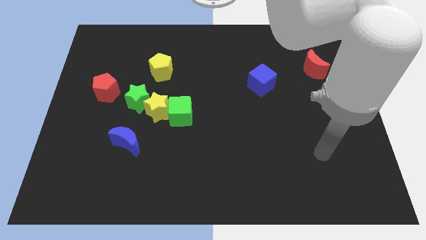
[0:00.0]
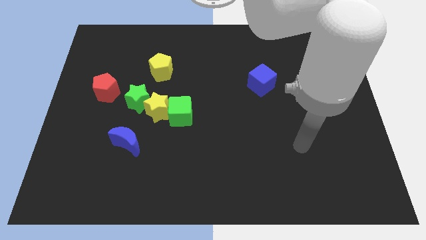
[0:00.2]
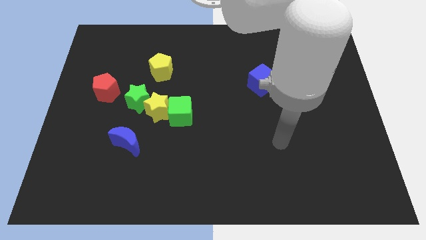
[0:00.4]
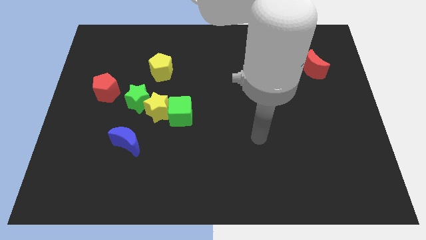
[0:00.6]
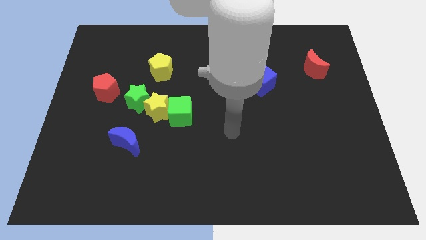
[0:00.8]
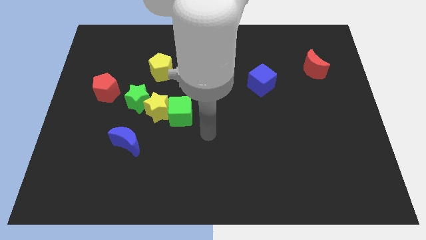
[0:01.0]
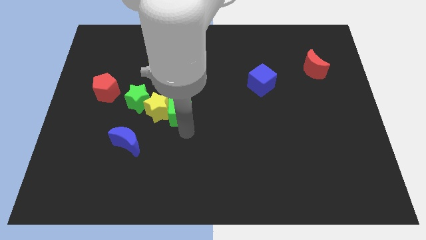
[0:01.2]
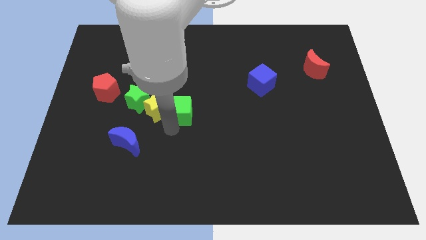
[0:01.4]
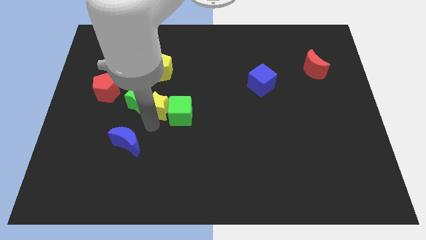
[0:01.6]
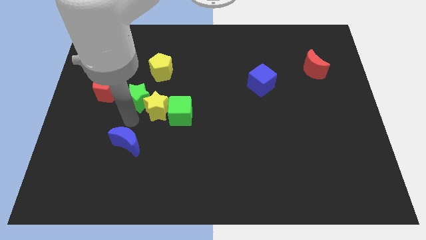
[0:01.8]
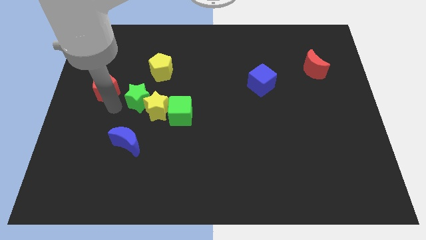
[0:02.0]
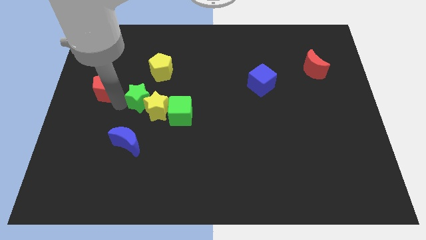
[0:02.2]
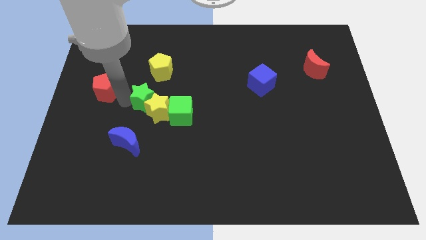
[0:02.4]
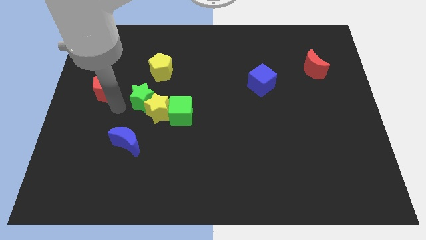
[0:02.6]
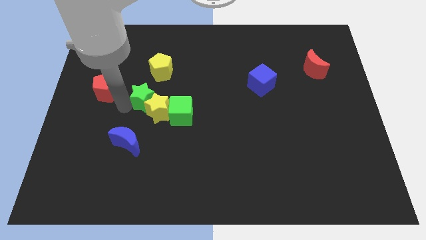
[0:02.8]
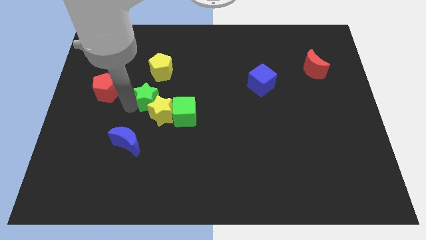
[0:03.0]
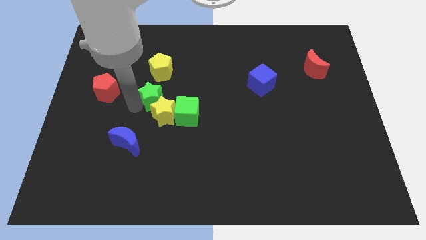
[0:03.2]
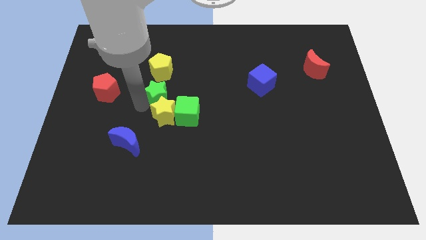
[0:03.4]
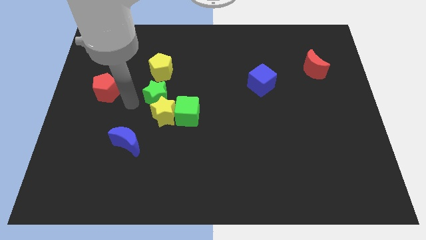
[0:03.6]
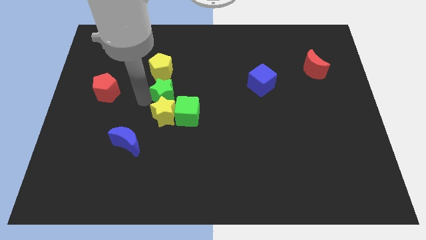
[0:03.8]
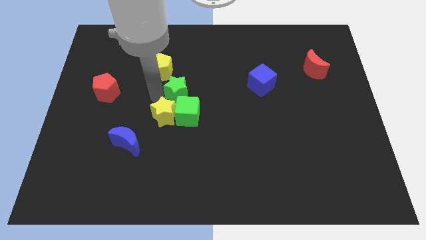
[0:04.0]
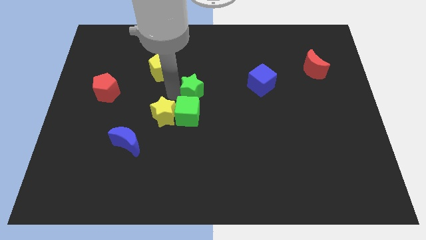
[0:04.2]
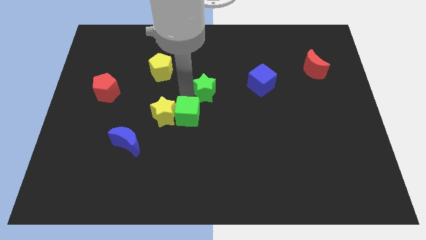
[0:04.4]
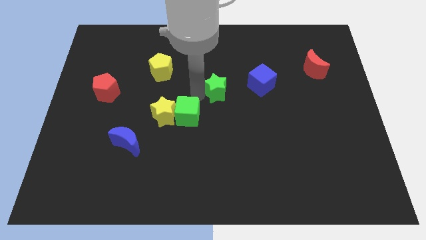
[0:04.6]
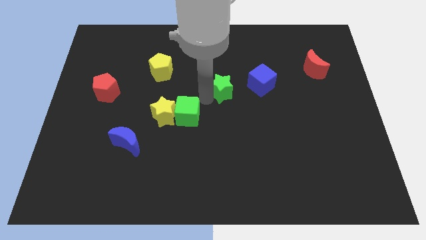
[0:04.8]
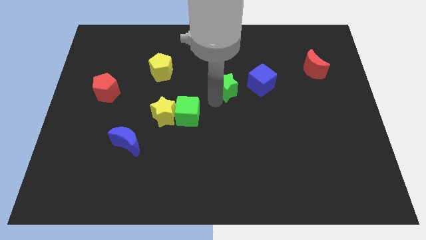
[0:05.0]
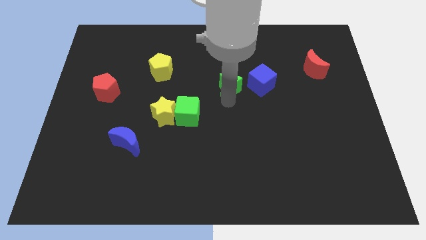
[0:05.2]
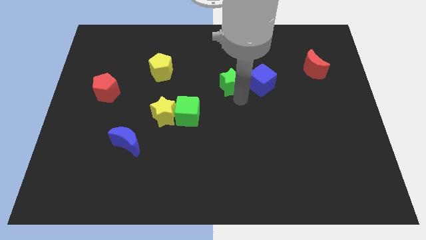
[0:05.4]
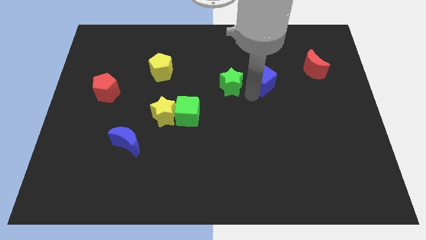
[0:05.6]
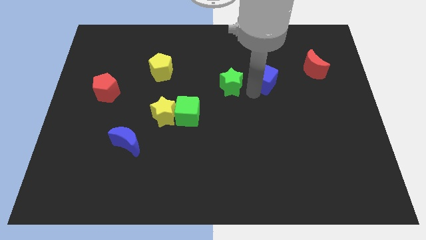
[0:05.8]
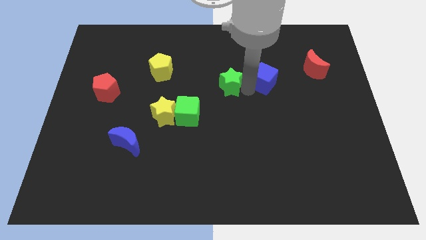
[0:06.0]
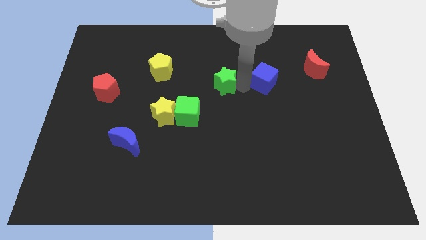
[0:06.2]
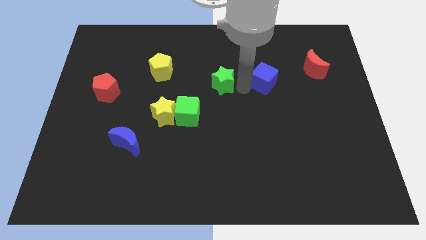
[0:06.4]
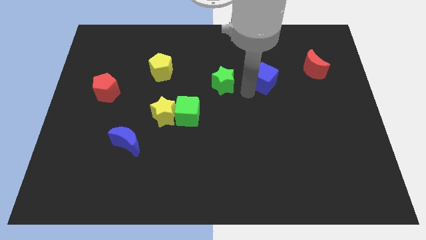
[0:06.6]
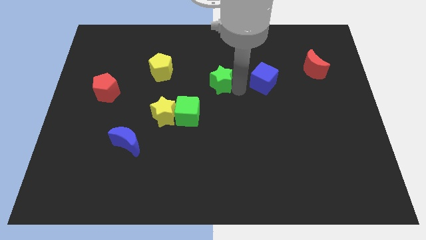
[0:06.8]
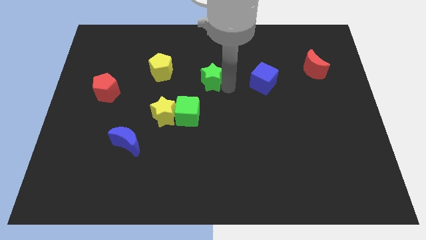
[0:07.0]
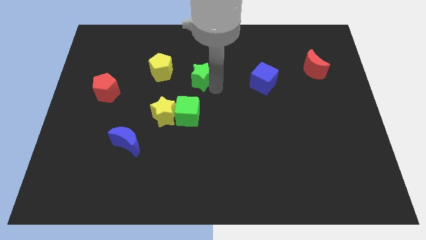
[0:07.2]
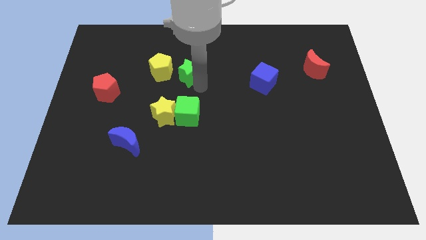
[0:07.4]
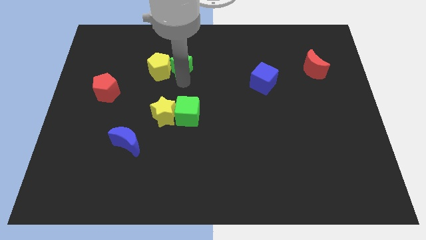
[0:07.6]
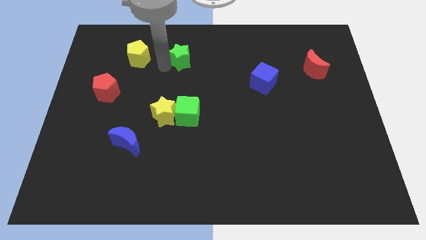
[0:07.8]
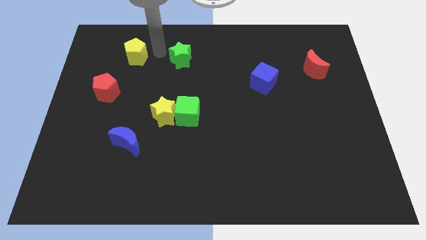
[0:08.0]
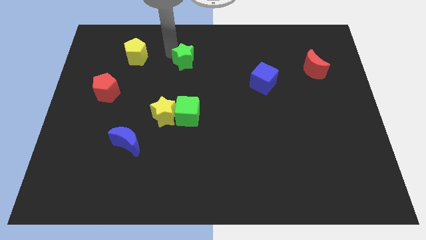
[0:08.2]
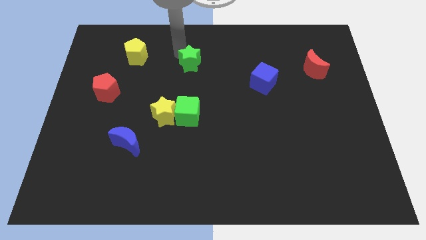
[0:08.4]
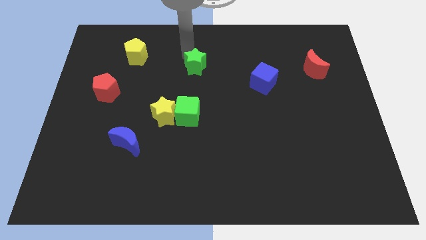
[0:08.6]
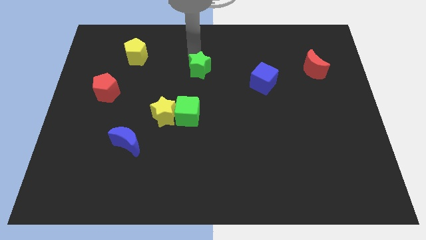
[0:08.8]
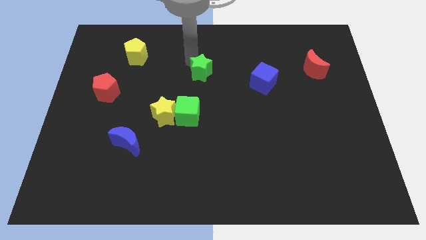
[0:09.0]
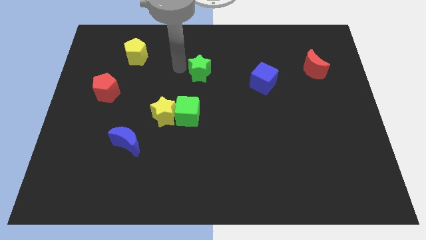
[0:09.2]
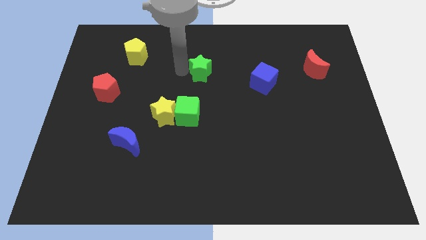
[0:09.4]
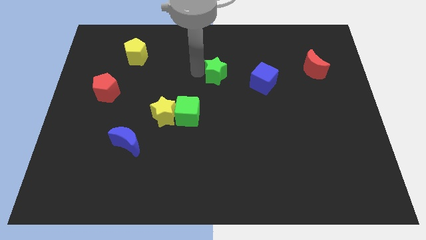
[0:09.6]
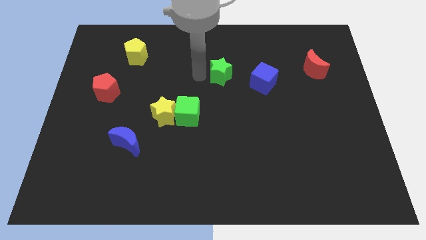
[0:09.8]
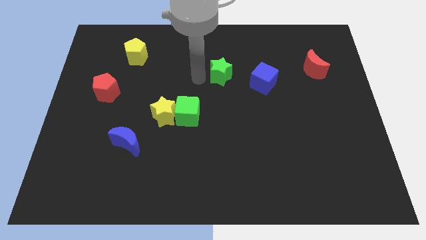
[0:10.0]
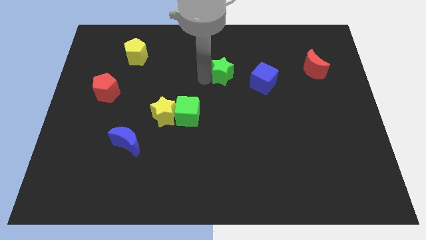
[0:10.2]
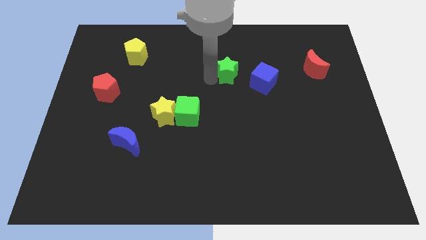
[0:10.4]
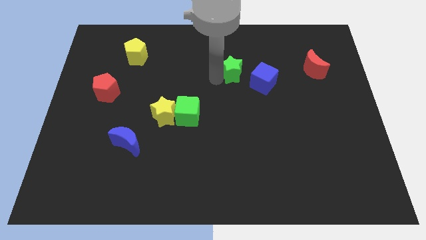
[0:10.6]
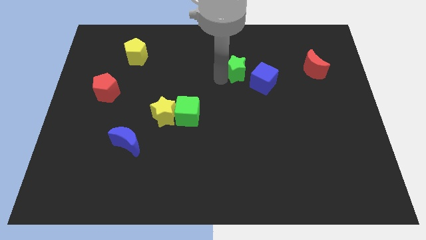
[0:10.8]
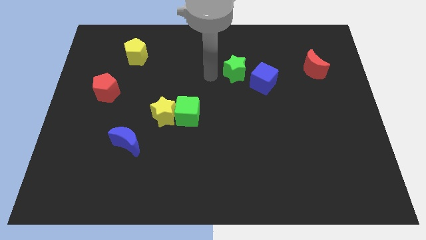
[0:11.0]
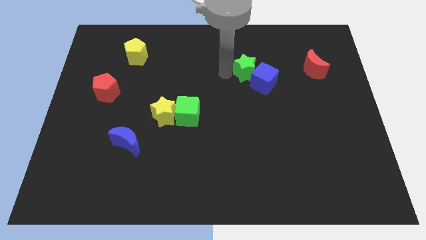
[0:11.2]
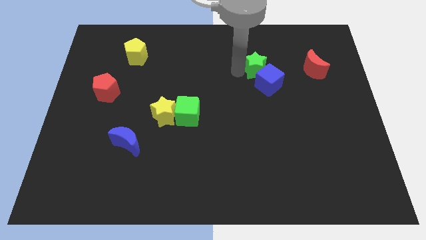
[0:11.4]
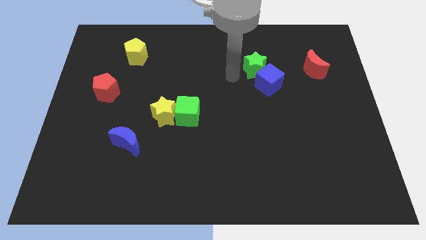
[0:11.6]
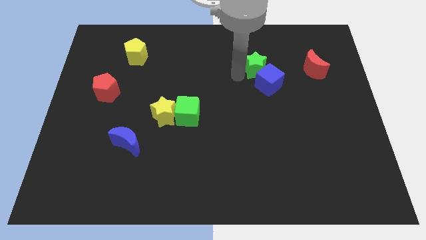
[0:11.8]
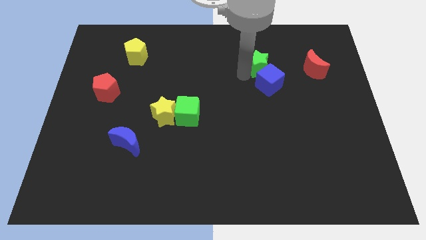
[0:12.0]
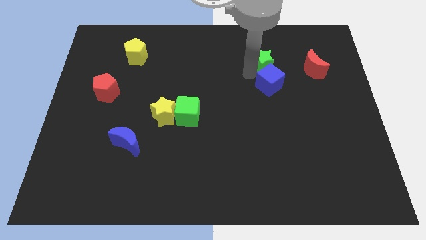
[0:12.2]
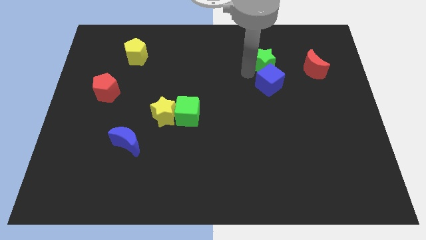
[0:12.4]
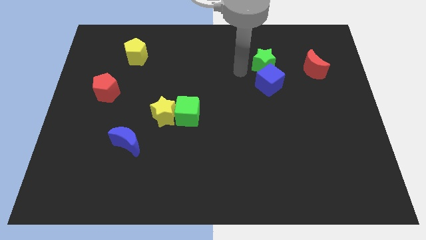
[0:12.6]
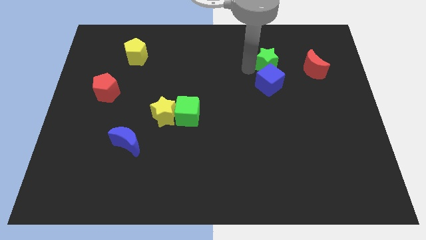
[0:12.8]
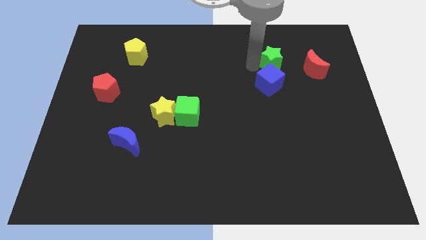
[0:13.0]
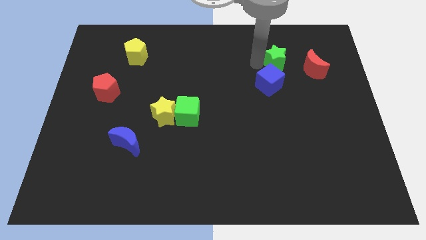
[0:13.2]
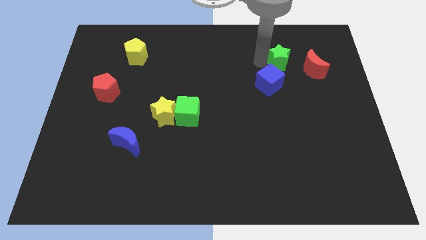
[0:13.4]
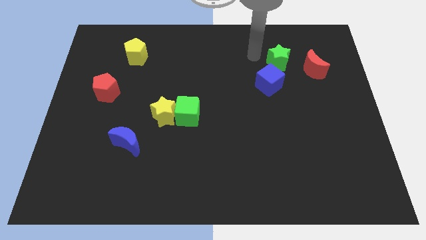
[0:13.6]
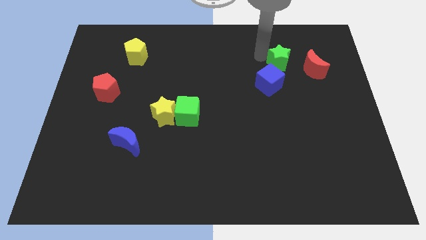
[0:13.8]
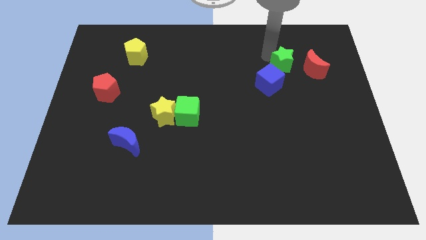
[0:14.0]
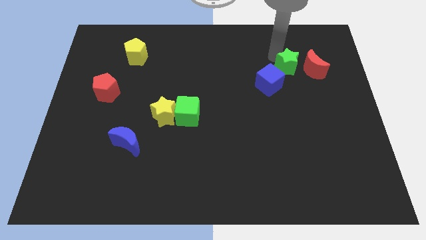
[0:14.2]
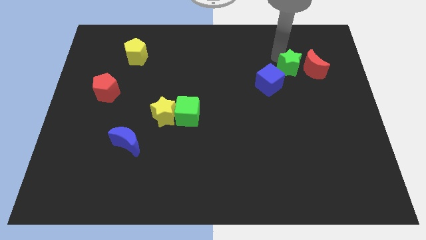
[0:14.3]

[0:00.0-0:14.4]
slide the green star towards the red moon

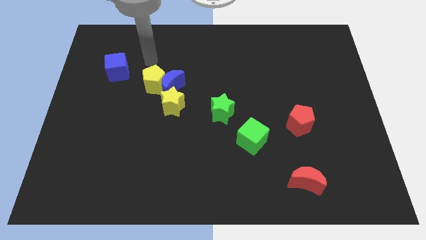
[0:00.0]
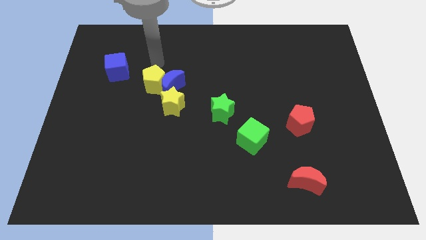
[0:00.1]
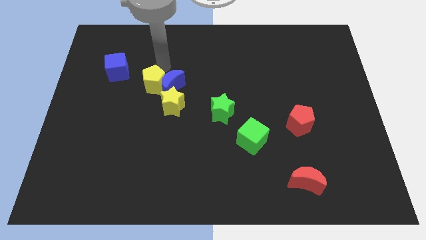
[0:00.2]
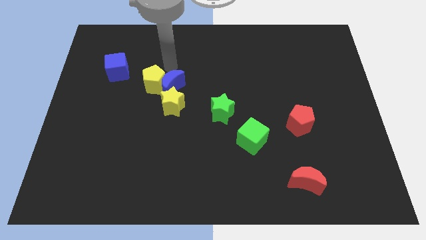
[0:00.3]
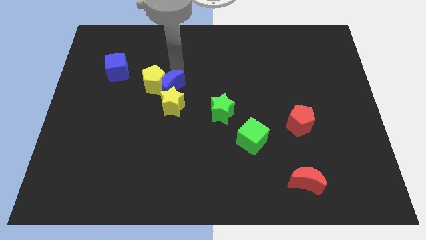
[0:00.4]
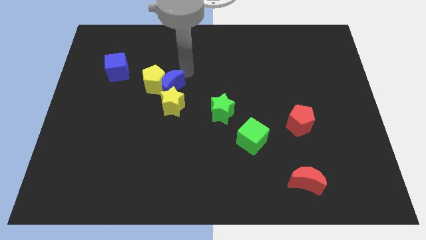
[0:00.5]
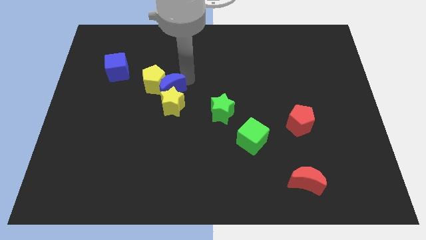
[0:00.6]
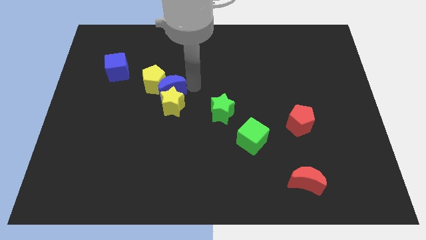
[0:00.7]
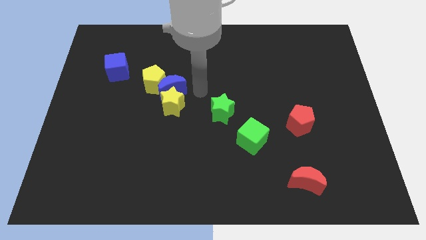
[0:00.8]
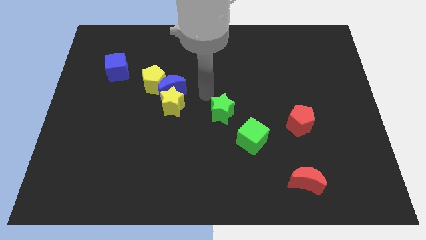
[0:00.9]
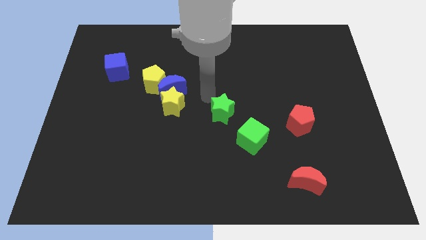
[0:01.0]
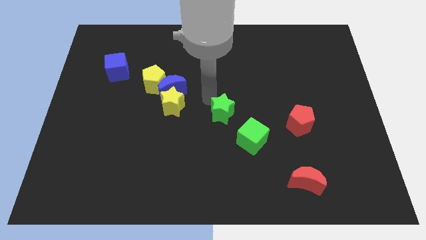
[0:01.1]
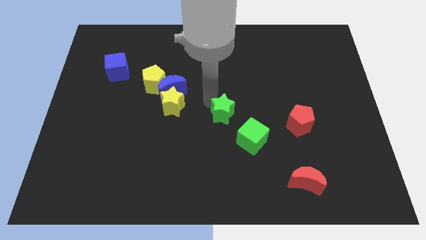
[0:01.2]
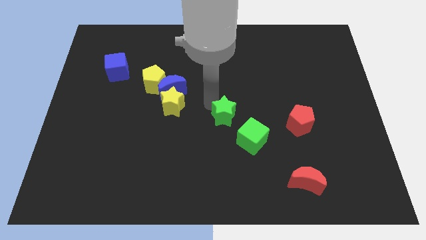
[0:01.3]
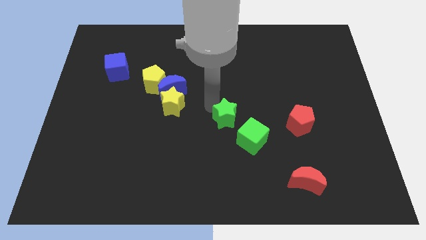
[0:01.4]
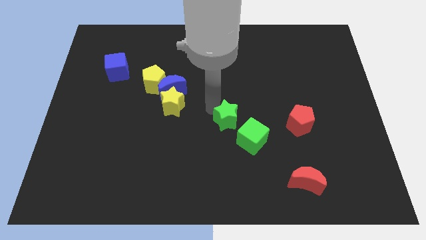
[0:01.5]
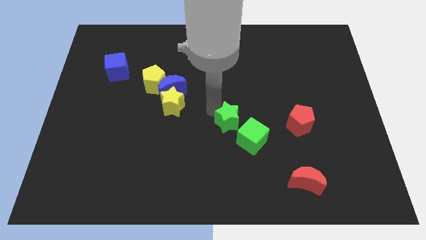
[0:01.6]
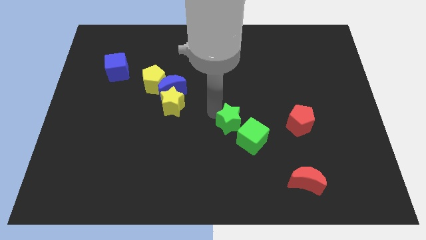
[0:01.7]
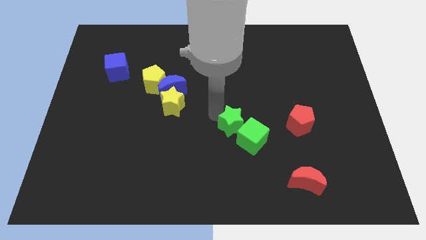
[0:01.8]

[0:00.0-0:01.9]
put the green star close to the green cube
